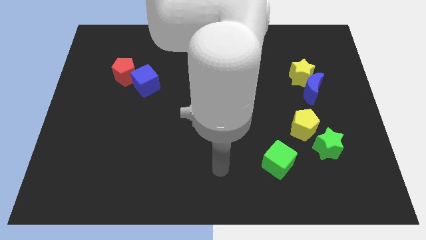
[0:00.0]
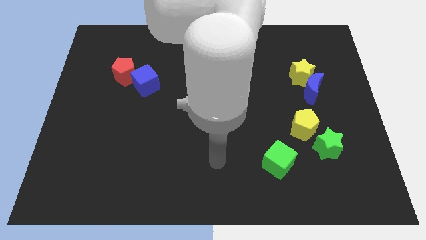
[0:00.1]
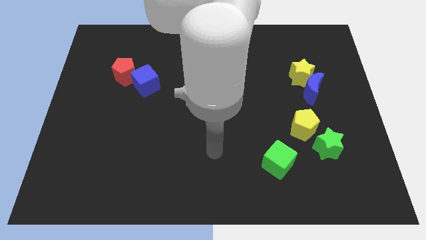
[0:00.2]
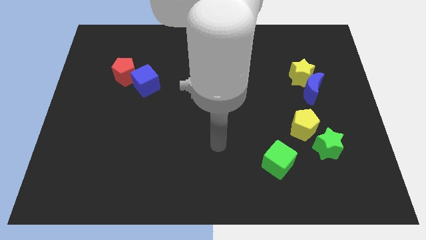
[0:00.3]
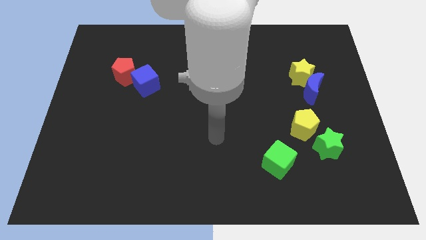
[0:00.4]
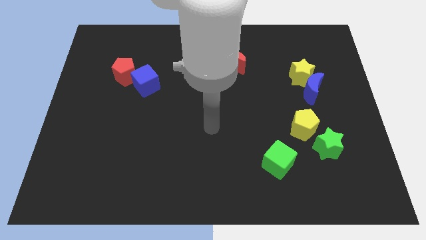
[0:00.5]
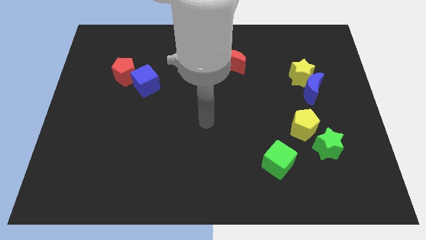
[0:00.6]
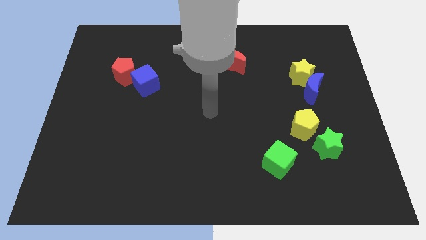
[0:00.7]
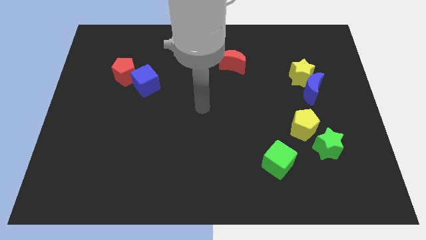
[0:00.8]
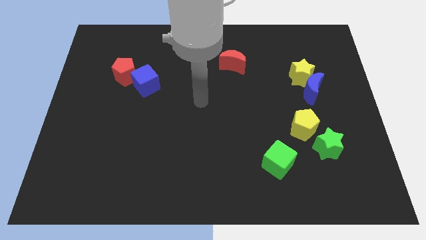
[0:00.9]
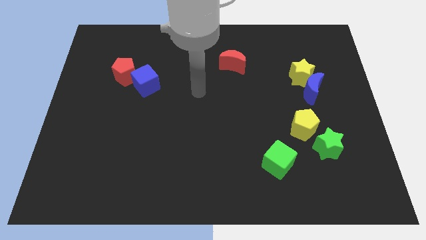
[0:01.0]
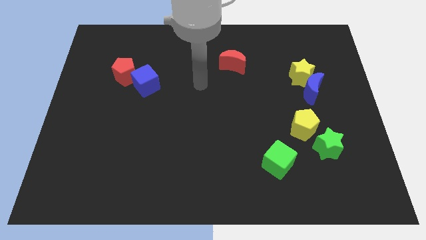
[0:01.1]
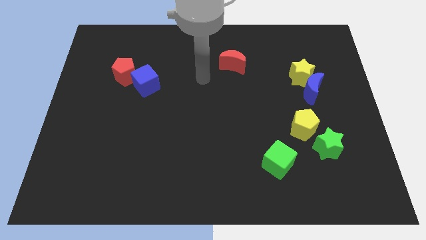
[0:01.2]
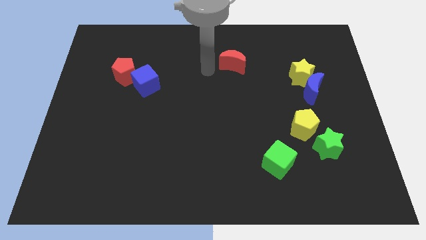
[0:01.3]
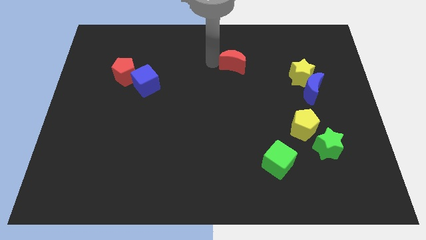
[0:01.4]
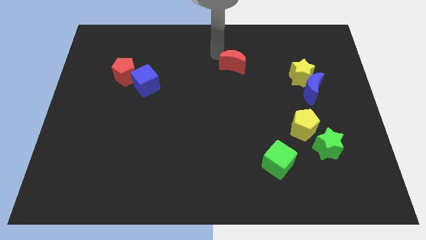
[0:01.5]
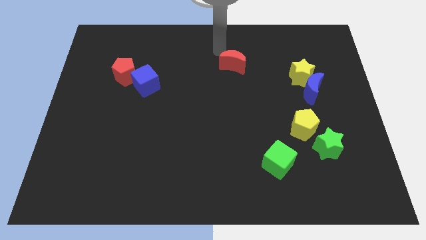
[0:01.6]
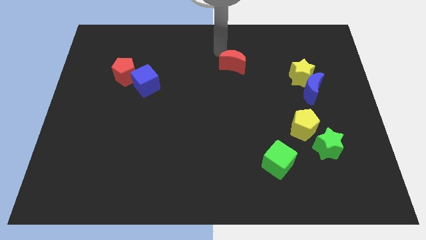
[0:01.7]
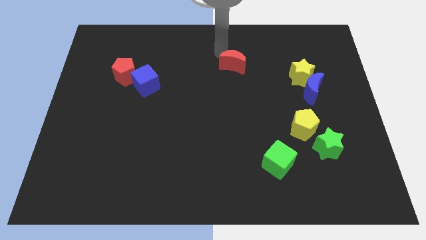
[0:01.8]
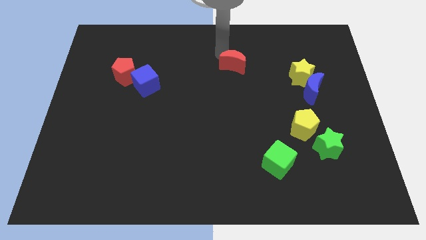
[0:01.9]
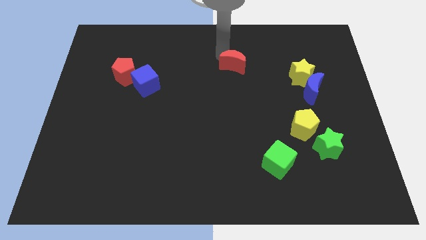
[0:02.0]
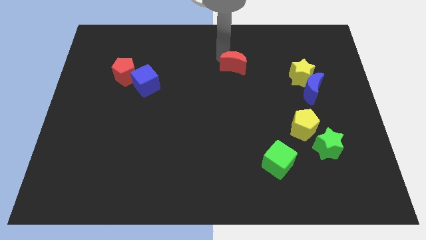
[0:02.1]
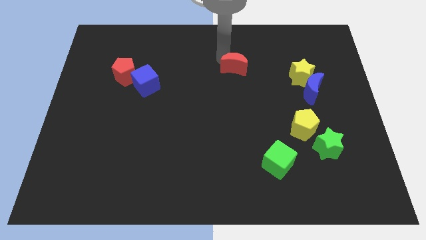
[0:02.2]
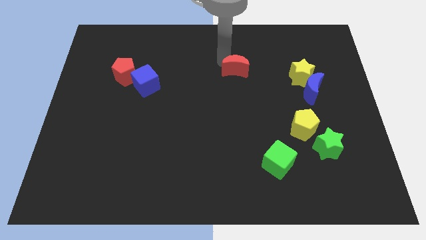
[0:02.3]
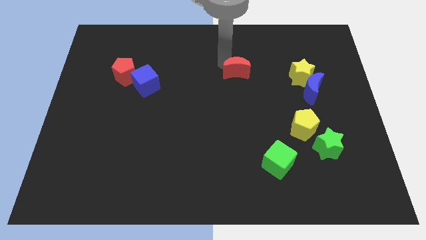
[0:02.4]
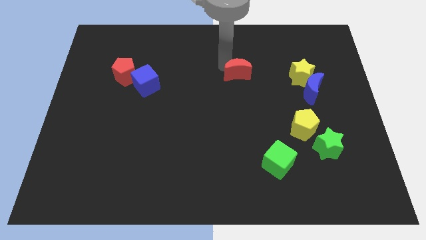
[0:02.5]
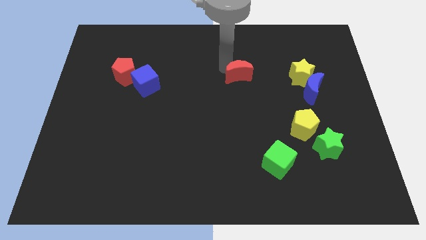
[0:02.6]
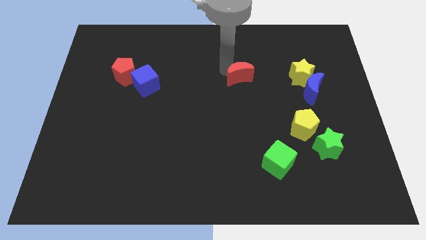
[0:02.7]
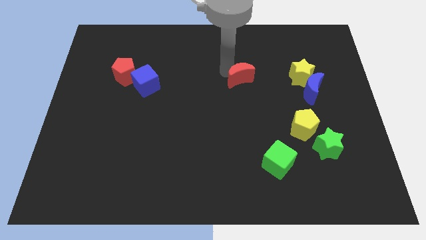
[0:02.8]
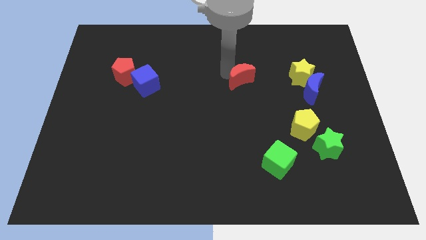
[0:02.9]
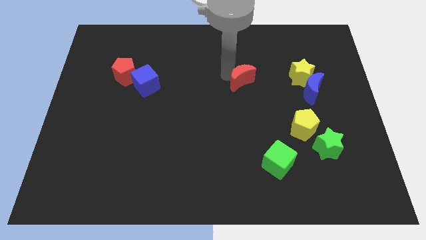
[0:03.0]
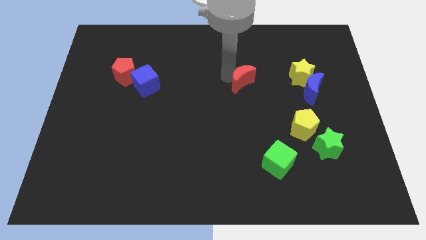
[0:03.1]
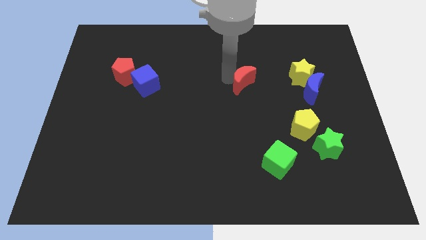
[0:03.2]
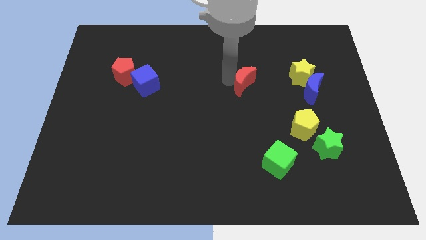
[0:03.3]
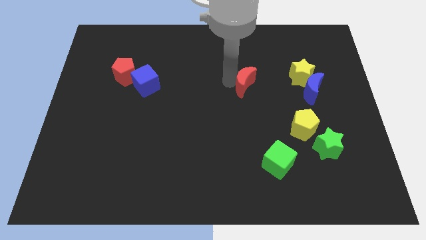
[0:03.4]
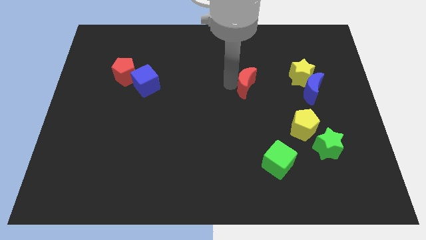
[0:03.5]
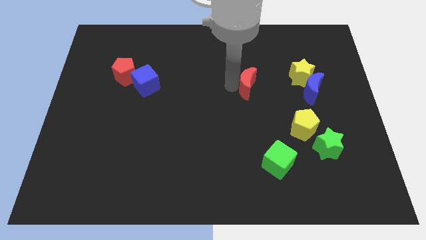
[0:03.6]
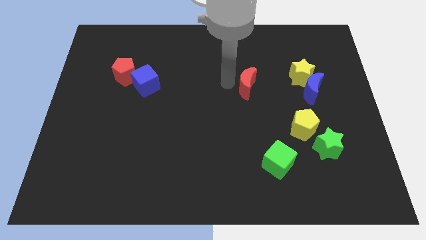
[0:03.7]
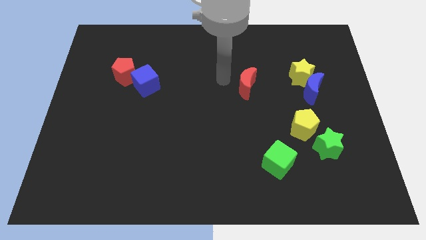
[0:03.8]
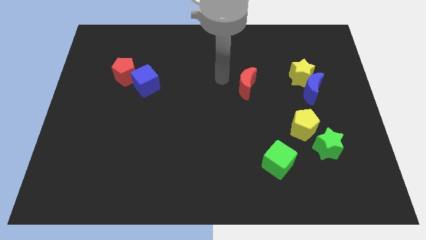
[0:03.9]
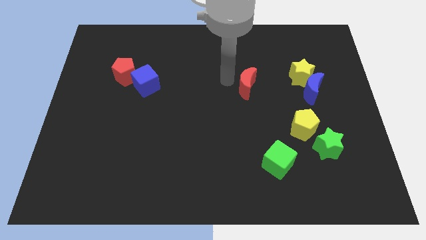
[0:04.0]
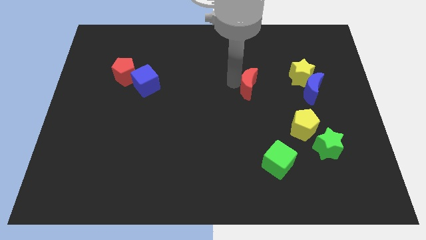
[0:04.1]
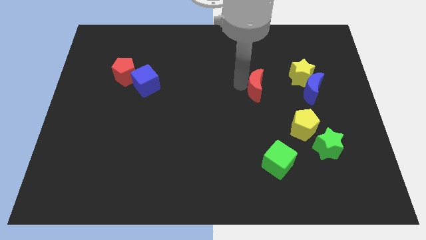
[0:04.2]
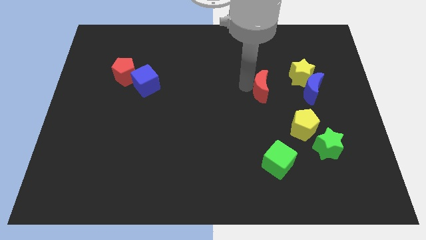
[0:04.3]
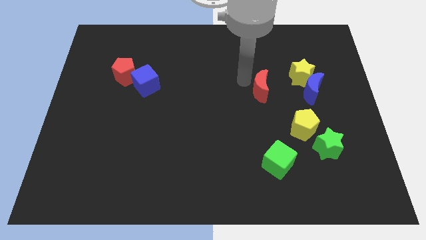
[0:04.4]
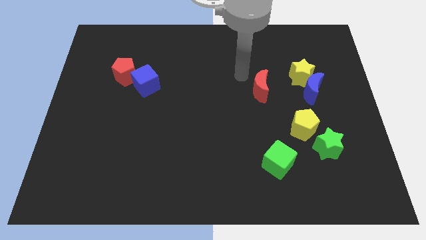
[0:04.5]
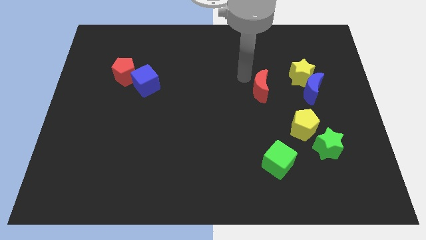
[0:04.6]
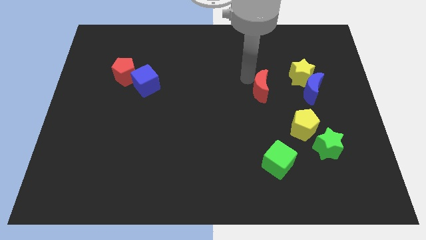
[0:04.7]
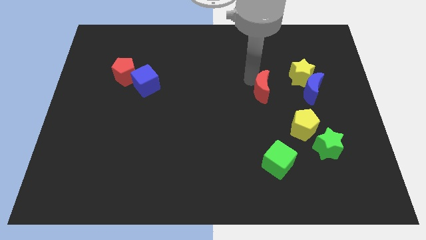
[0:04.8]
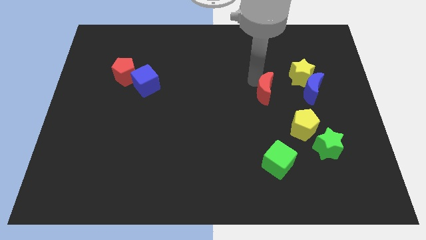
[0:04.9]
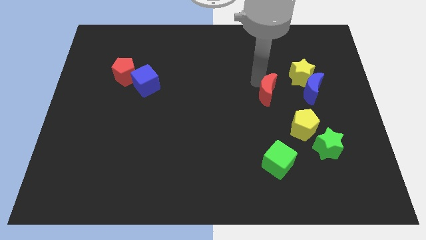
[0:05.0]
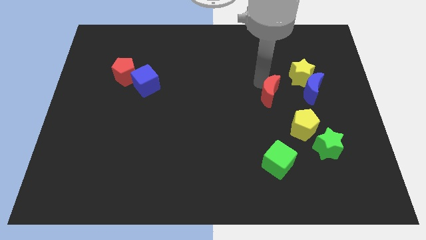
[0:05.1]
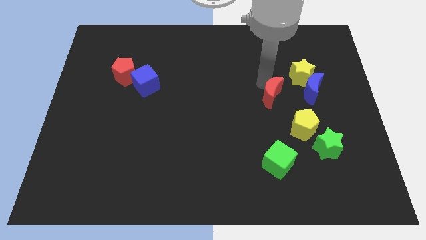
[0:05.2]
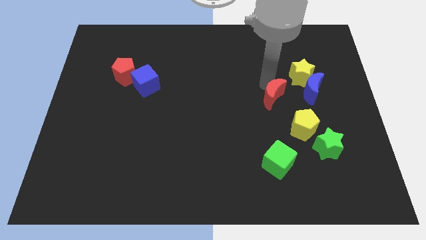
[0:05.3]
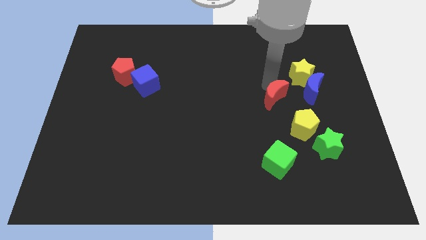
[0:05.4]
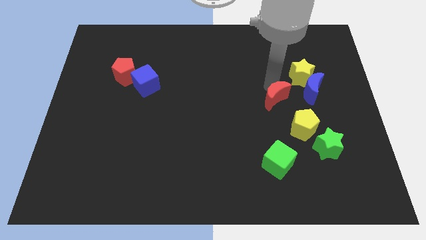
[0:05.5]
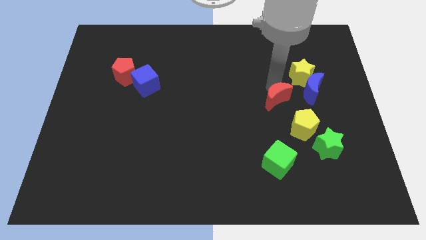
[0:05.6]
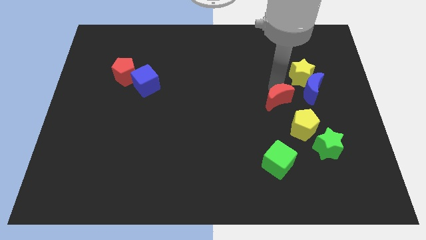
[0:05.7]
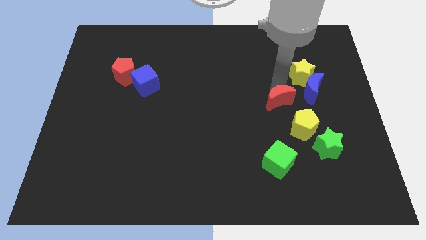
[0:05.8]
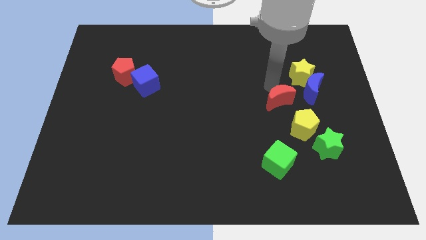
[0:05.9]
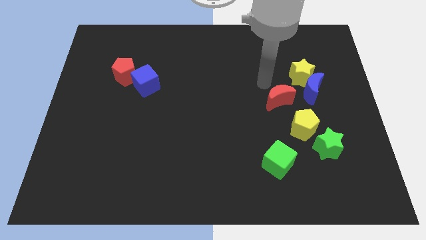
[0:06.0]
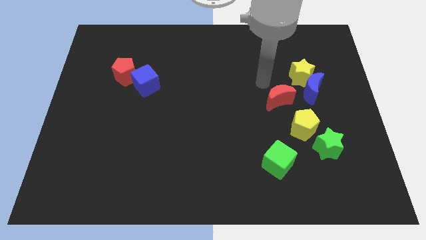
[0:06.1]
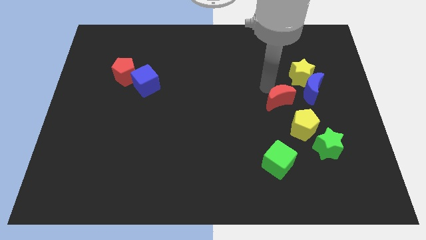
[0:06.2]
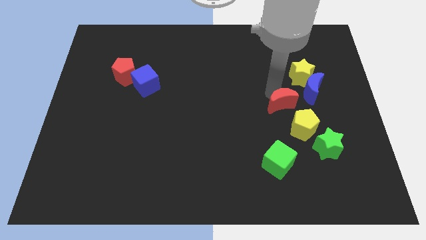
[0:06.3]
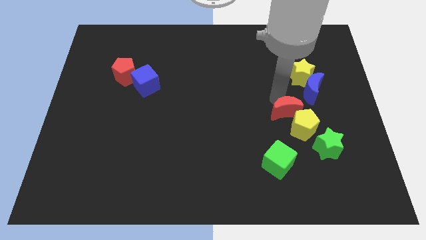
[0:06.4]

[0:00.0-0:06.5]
push the red moon close to the yellow pentagon
